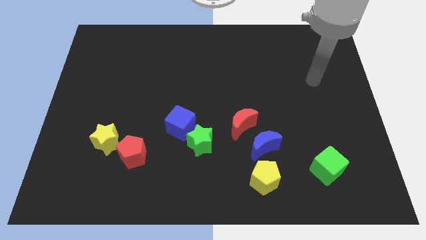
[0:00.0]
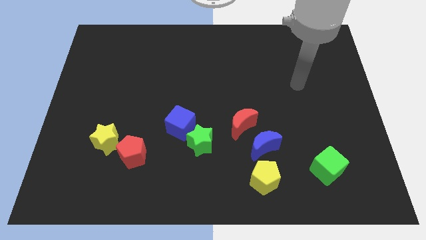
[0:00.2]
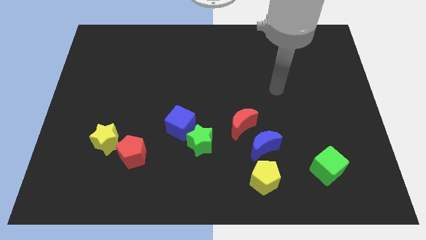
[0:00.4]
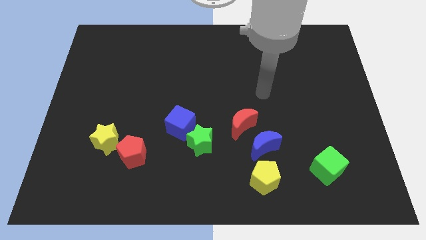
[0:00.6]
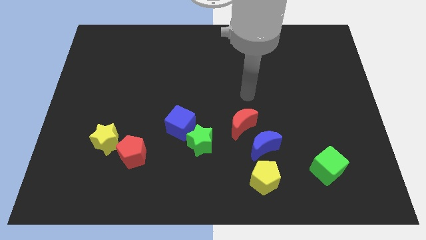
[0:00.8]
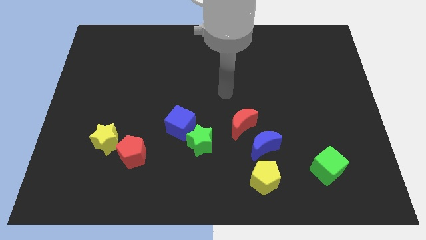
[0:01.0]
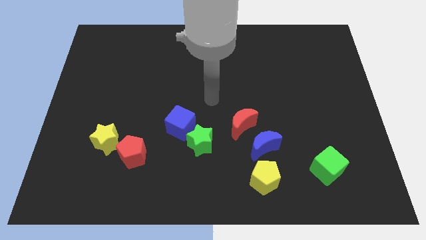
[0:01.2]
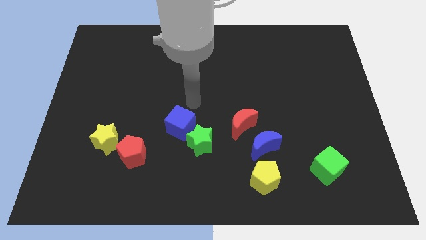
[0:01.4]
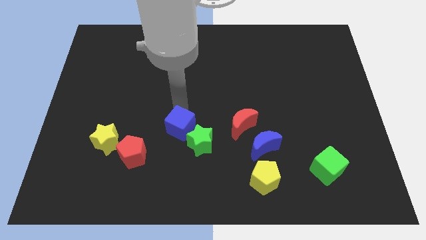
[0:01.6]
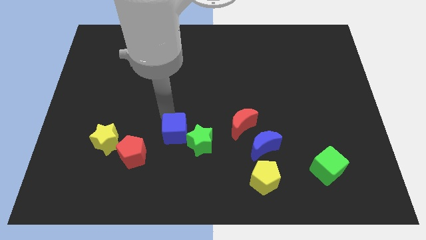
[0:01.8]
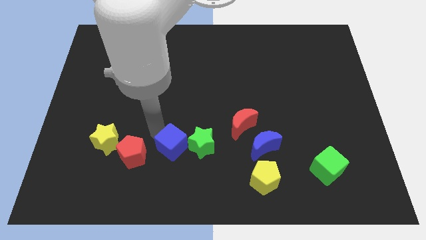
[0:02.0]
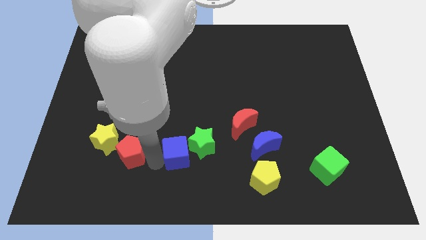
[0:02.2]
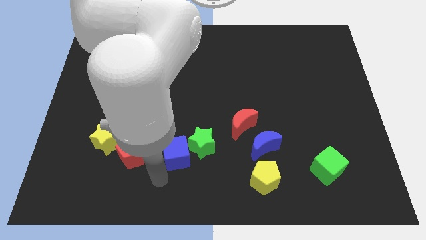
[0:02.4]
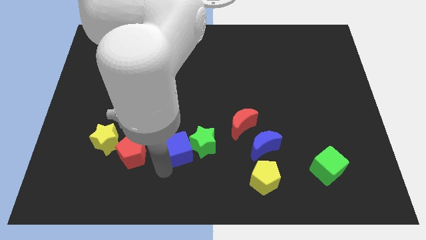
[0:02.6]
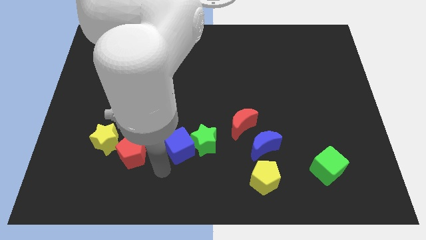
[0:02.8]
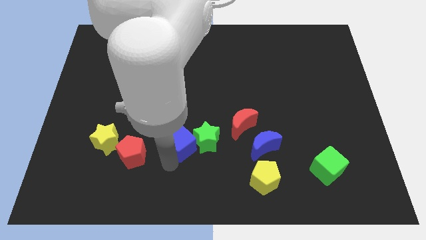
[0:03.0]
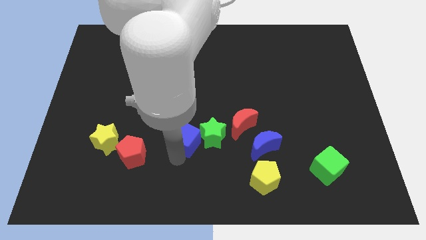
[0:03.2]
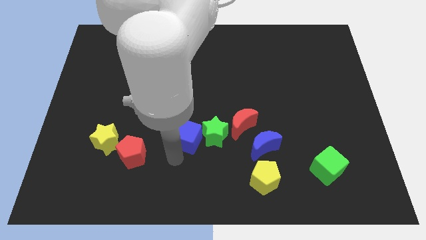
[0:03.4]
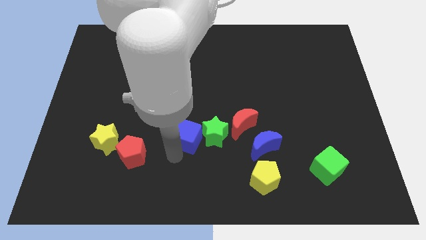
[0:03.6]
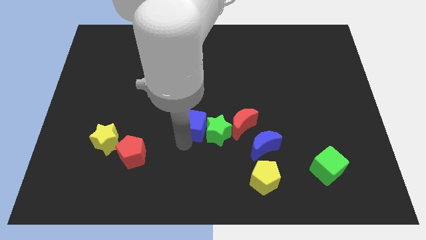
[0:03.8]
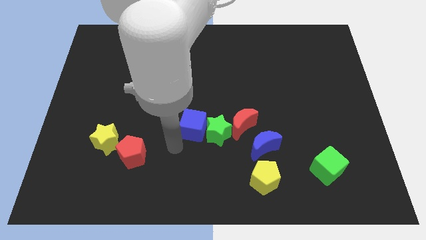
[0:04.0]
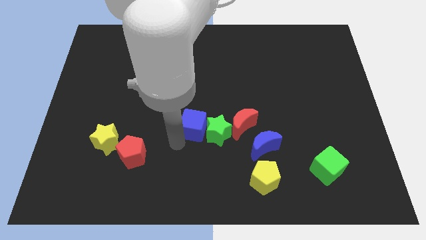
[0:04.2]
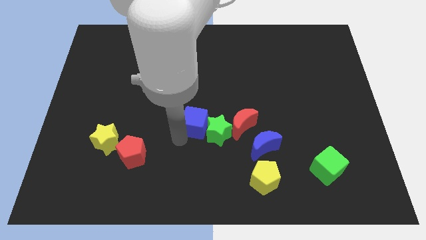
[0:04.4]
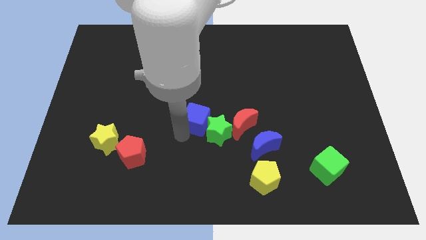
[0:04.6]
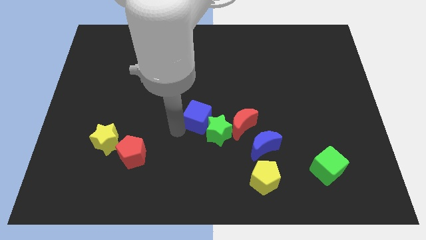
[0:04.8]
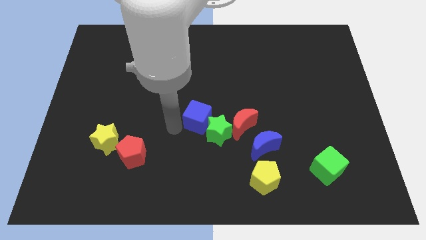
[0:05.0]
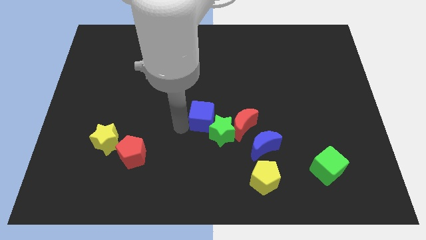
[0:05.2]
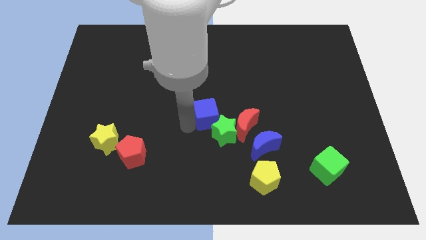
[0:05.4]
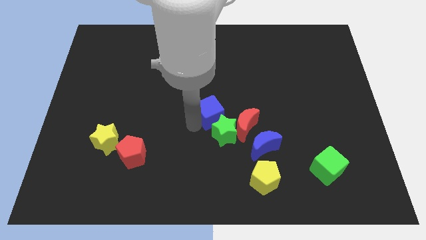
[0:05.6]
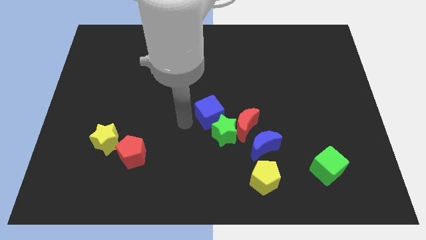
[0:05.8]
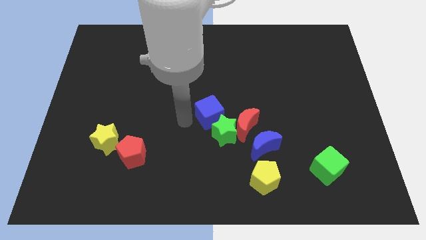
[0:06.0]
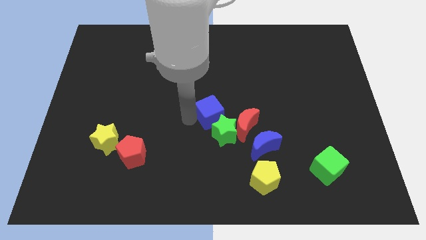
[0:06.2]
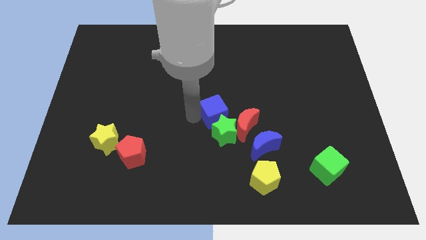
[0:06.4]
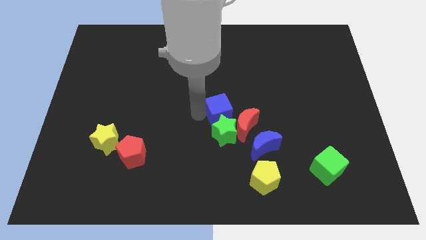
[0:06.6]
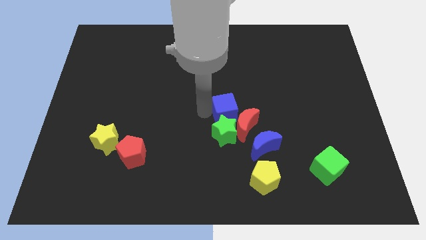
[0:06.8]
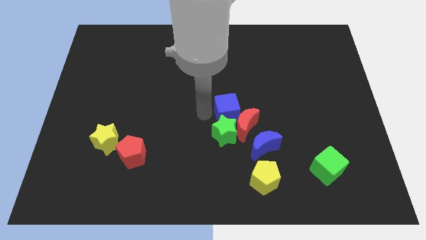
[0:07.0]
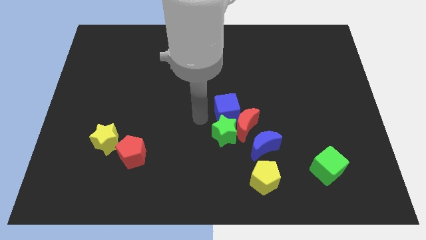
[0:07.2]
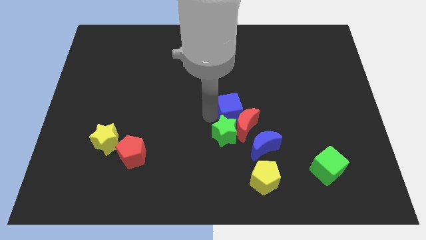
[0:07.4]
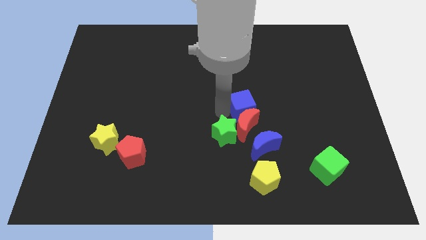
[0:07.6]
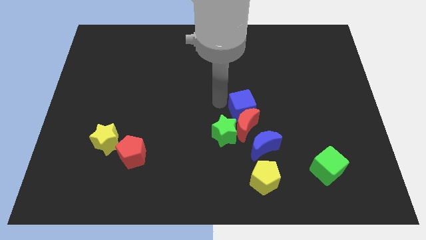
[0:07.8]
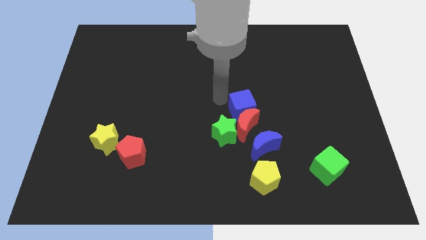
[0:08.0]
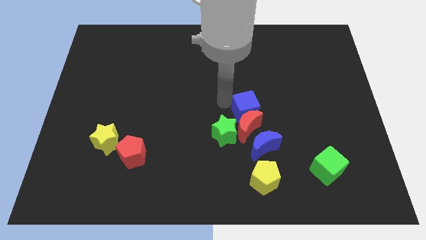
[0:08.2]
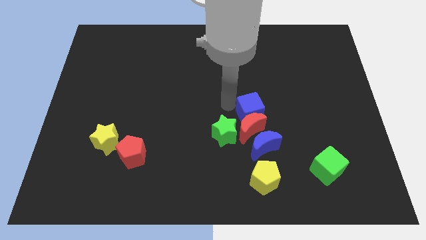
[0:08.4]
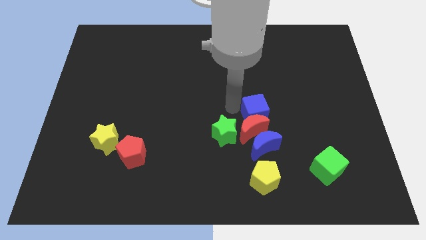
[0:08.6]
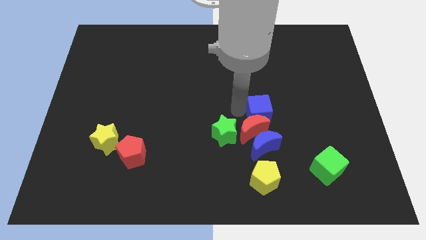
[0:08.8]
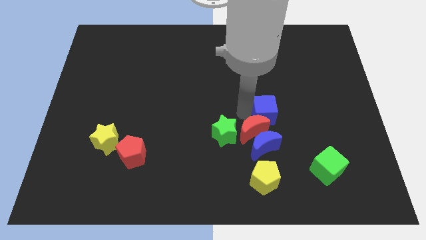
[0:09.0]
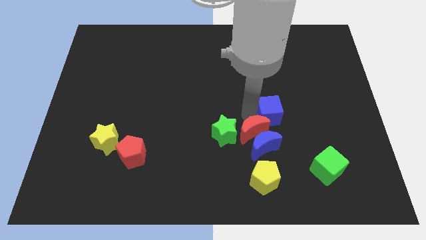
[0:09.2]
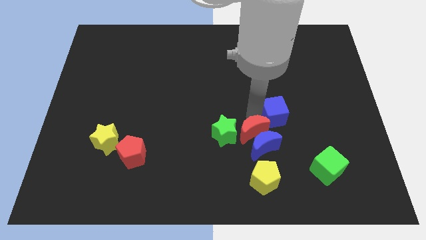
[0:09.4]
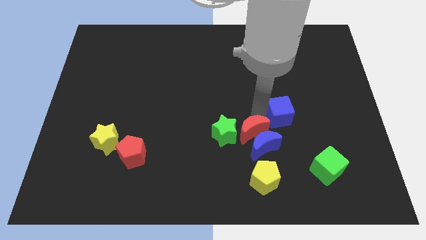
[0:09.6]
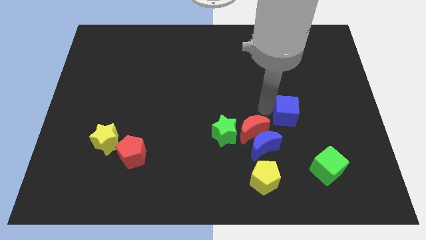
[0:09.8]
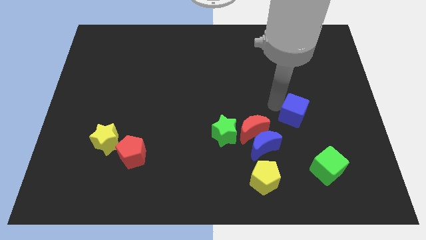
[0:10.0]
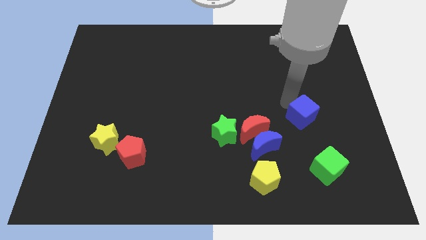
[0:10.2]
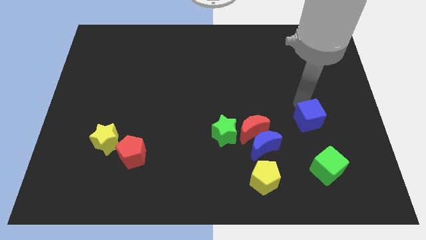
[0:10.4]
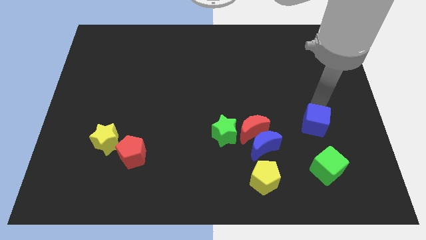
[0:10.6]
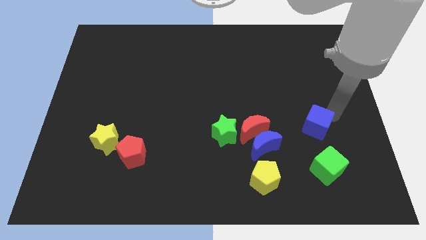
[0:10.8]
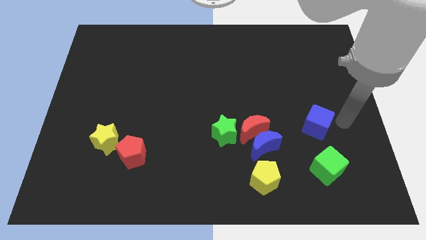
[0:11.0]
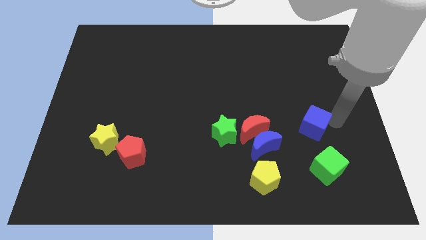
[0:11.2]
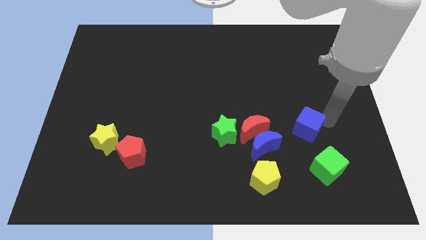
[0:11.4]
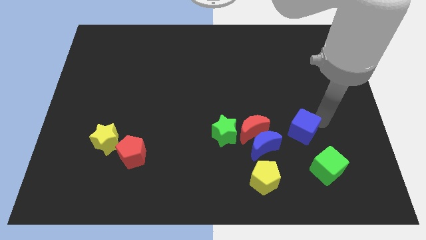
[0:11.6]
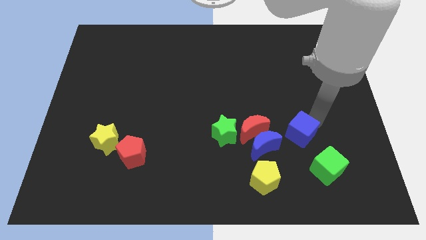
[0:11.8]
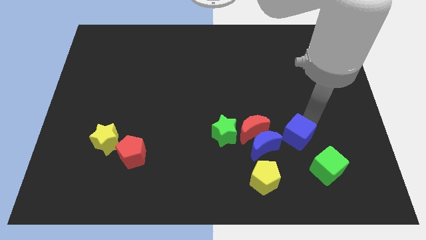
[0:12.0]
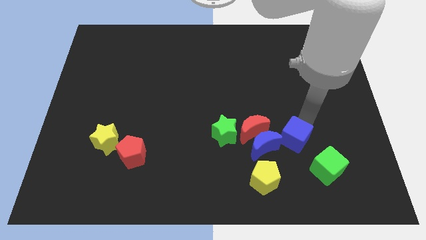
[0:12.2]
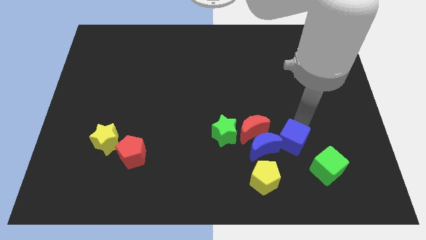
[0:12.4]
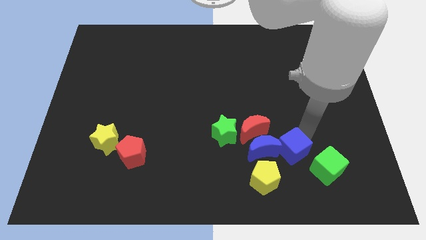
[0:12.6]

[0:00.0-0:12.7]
push the blue cube to the left side of the green cube

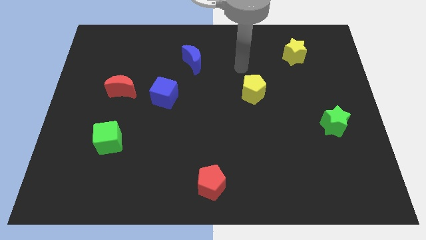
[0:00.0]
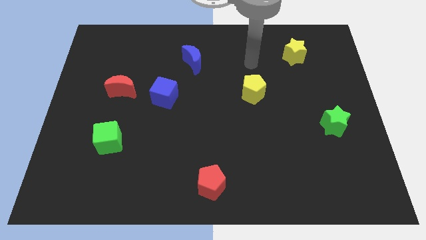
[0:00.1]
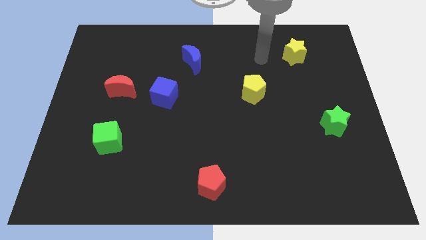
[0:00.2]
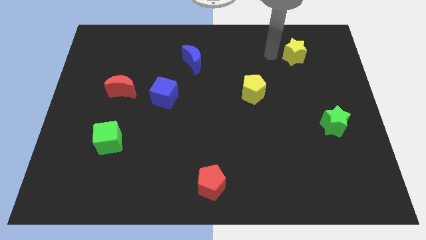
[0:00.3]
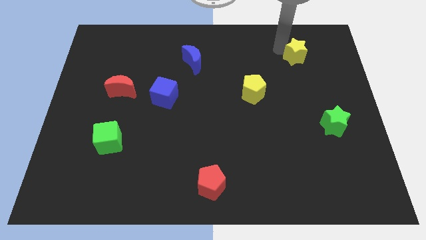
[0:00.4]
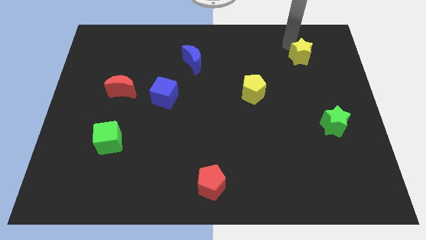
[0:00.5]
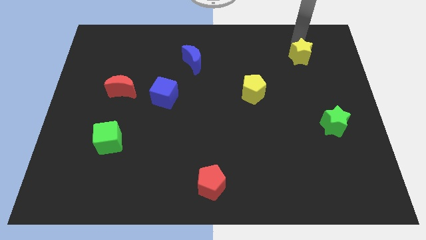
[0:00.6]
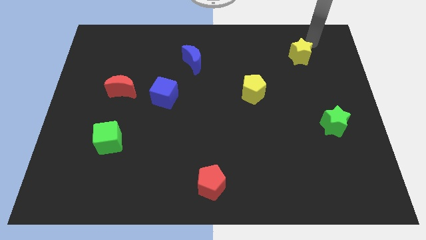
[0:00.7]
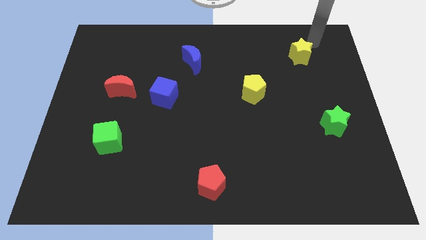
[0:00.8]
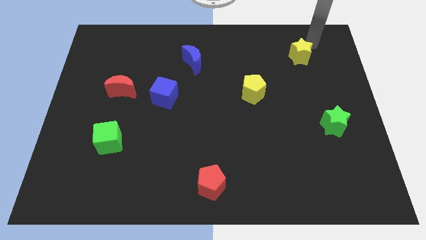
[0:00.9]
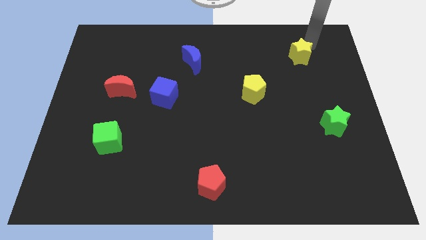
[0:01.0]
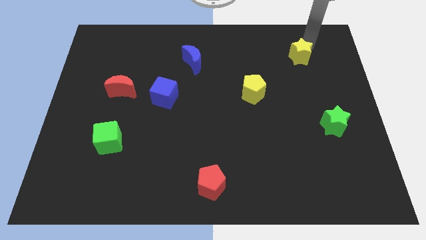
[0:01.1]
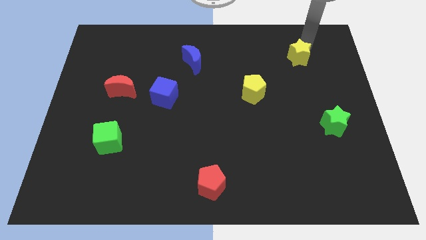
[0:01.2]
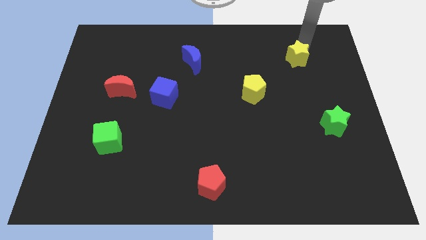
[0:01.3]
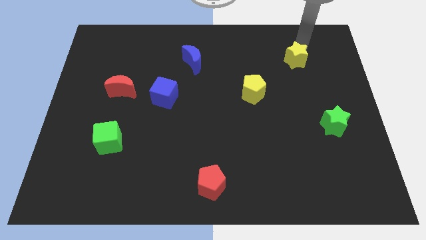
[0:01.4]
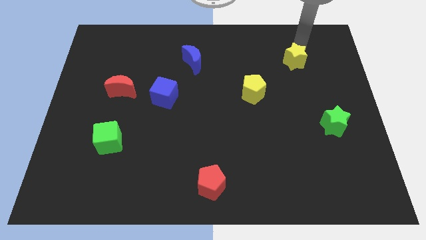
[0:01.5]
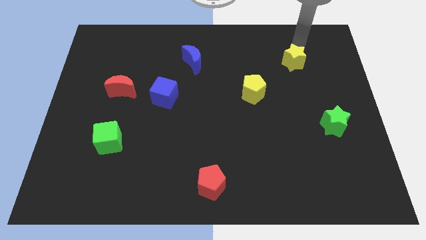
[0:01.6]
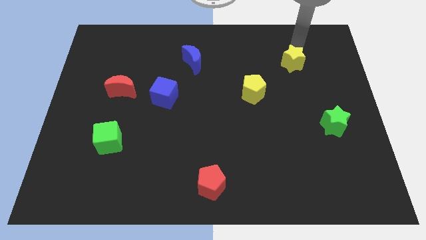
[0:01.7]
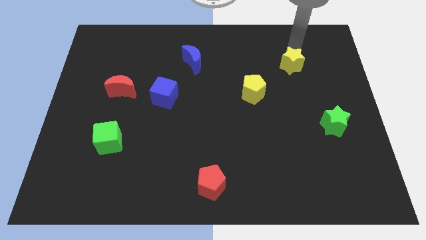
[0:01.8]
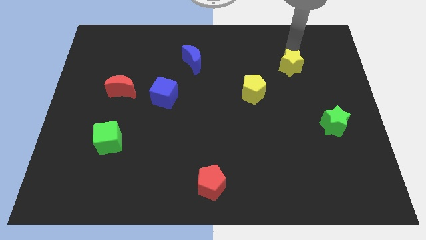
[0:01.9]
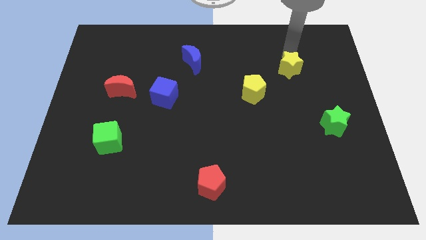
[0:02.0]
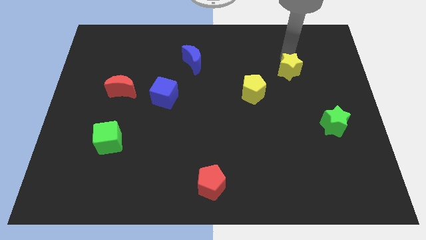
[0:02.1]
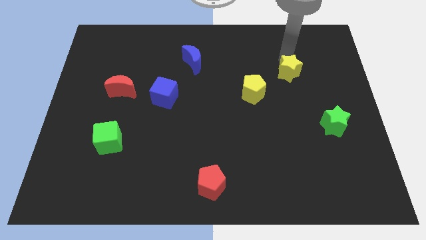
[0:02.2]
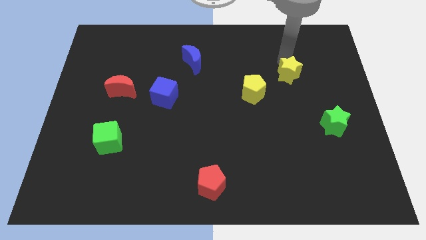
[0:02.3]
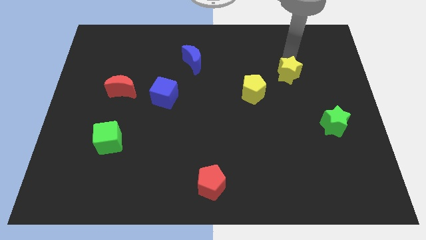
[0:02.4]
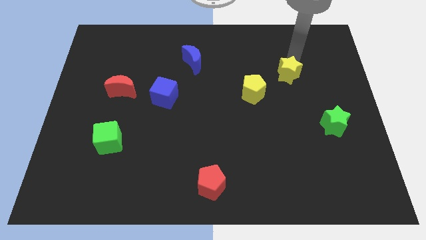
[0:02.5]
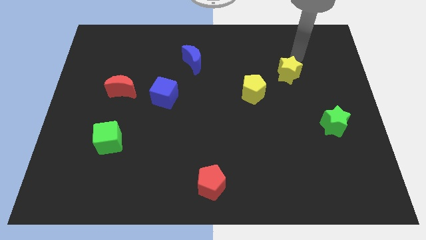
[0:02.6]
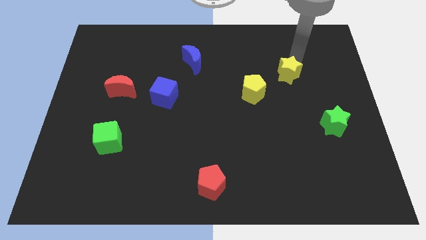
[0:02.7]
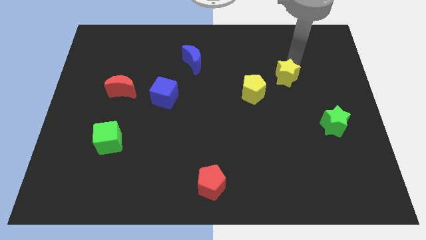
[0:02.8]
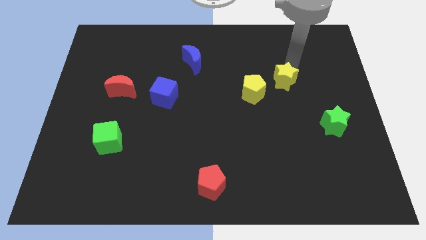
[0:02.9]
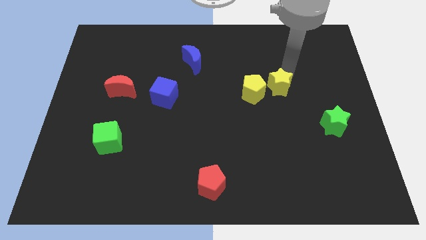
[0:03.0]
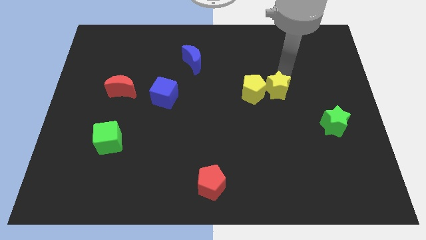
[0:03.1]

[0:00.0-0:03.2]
put the yellow star to the bottom right of the yellow pentagon
